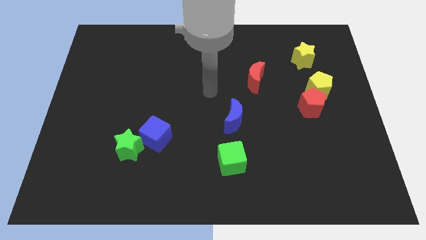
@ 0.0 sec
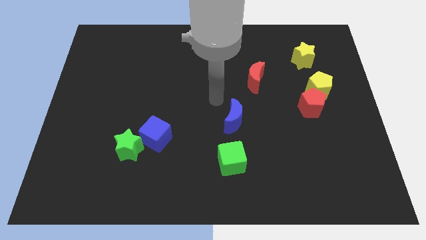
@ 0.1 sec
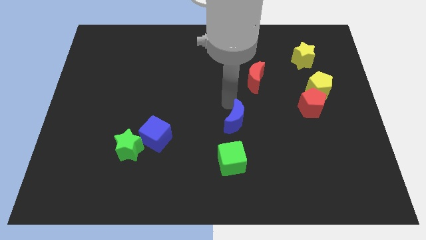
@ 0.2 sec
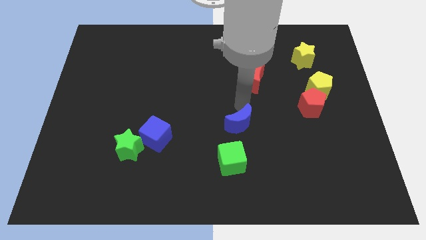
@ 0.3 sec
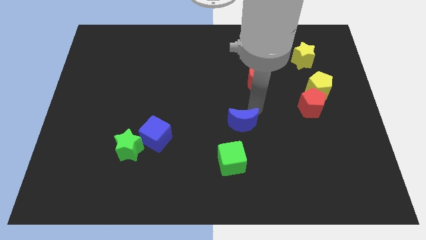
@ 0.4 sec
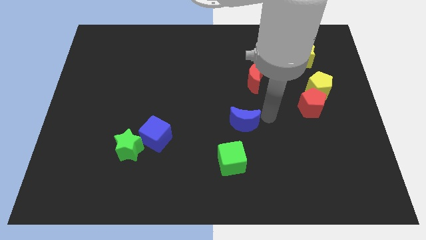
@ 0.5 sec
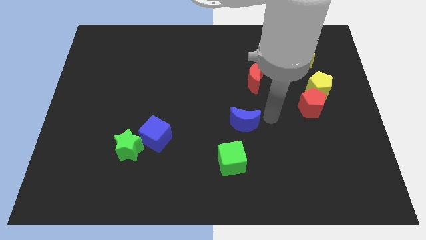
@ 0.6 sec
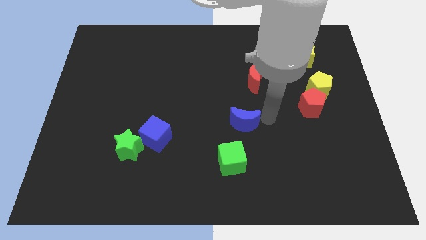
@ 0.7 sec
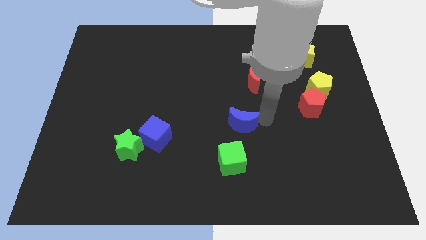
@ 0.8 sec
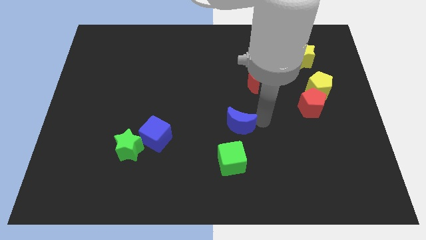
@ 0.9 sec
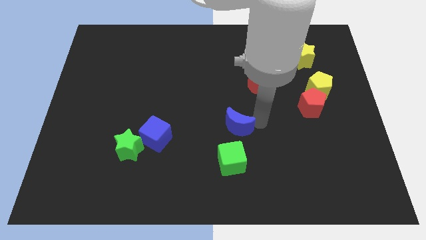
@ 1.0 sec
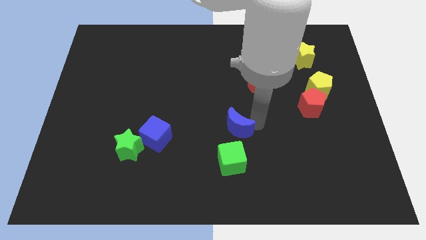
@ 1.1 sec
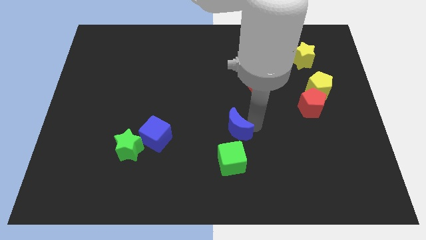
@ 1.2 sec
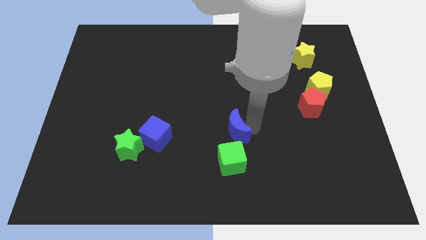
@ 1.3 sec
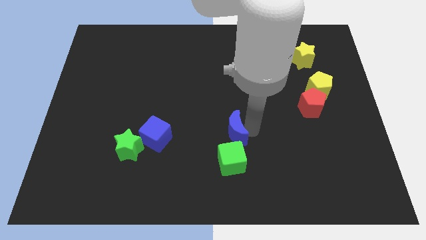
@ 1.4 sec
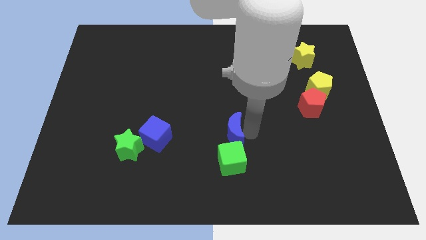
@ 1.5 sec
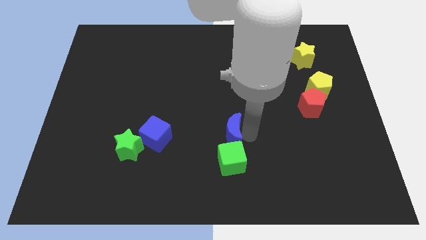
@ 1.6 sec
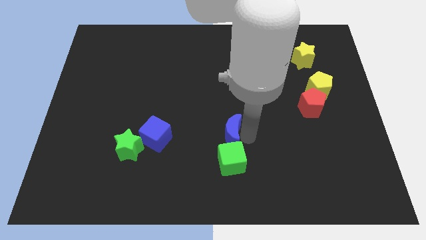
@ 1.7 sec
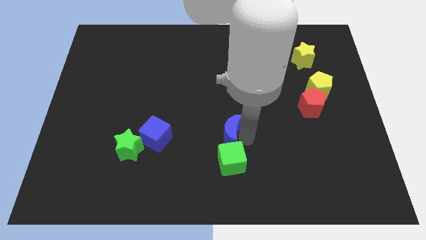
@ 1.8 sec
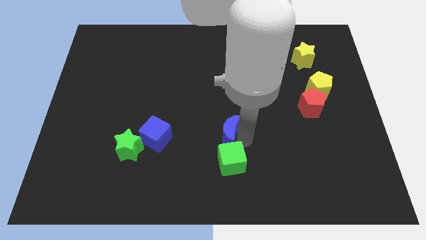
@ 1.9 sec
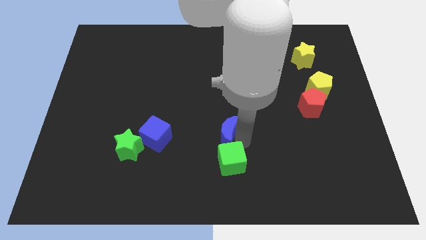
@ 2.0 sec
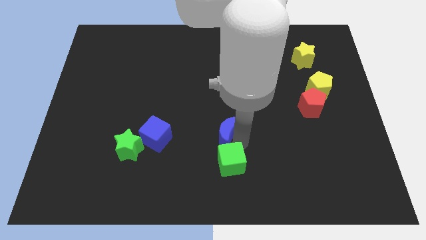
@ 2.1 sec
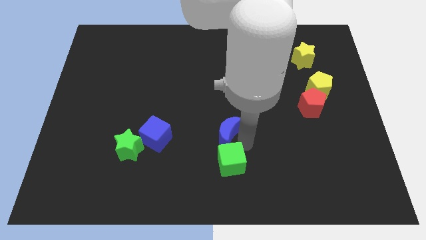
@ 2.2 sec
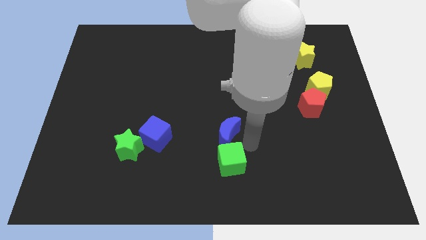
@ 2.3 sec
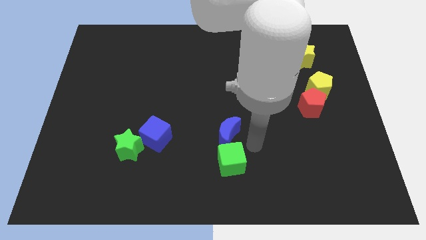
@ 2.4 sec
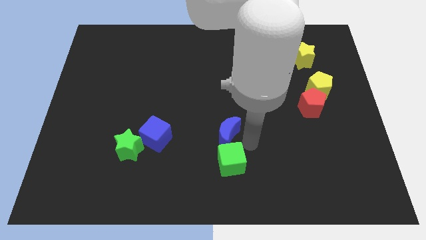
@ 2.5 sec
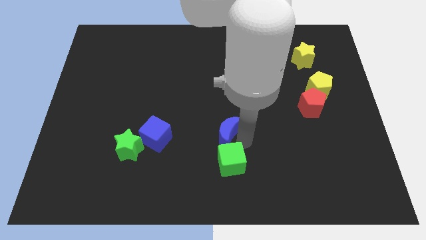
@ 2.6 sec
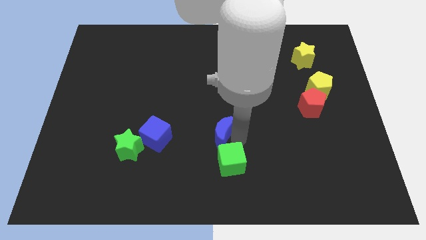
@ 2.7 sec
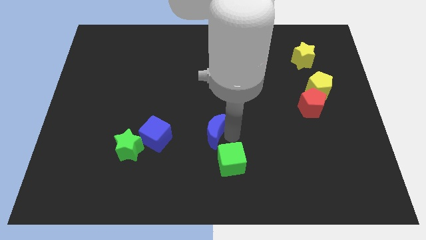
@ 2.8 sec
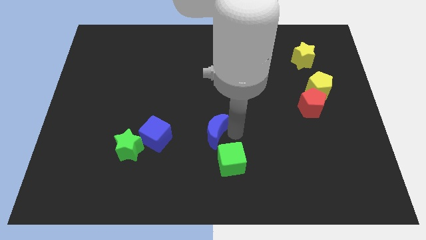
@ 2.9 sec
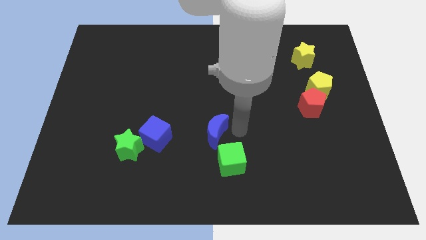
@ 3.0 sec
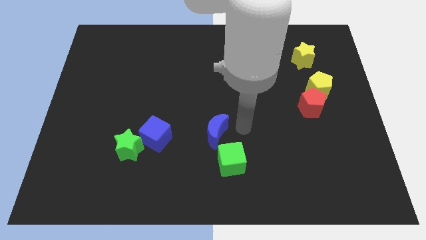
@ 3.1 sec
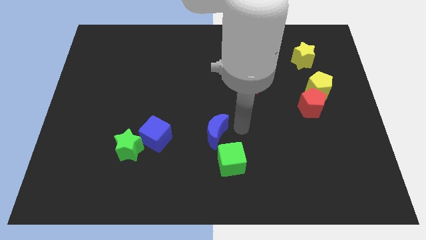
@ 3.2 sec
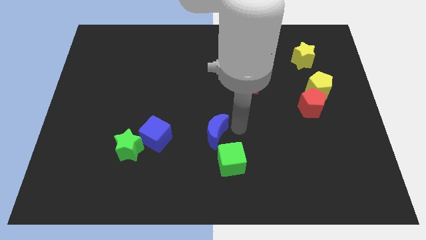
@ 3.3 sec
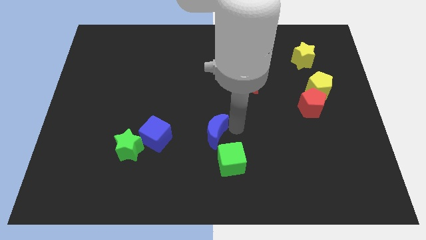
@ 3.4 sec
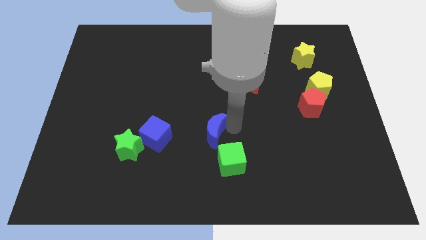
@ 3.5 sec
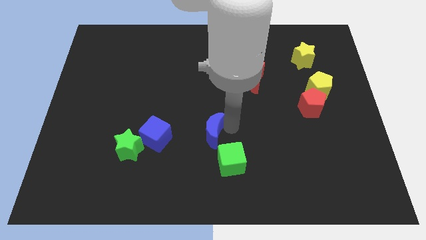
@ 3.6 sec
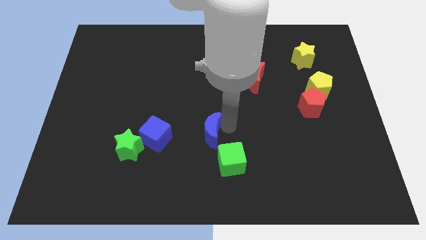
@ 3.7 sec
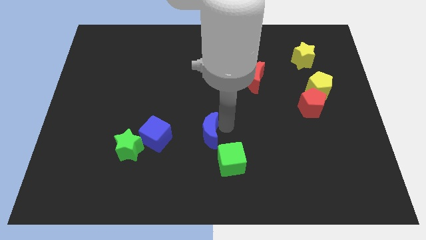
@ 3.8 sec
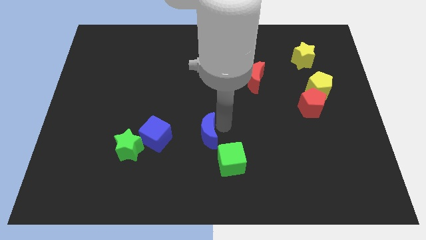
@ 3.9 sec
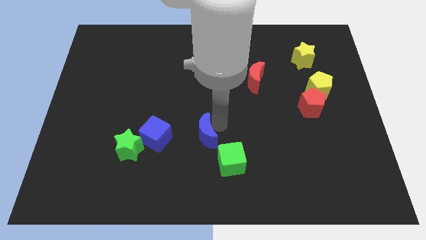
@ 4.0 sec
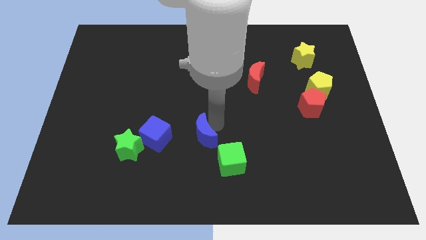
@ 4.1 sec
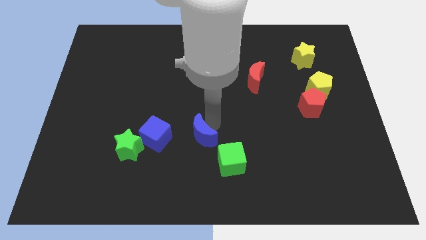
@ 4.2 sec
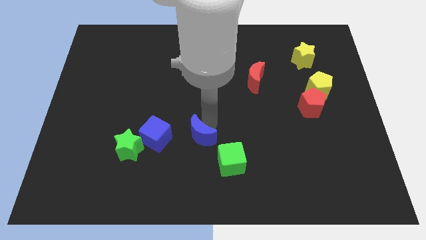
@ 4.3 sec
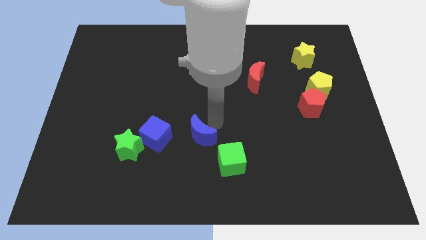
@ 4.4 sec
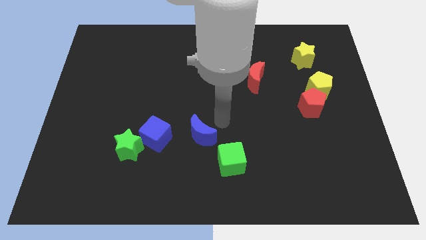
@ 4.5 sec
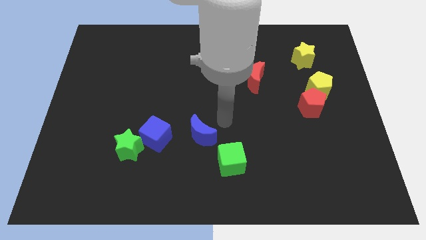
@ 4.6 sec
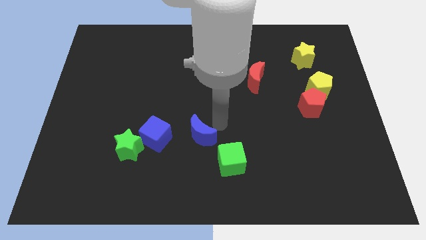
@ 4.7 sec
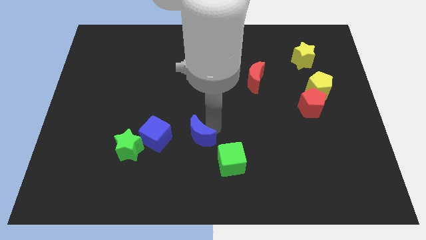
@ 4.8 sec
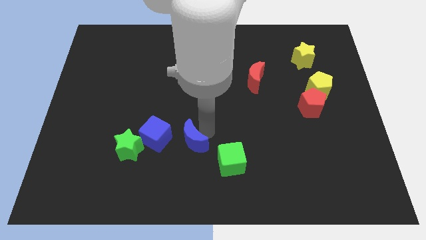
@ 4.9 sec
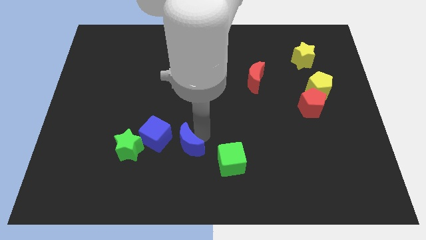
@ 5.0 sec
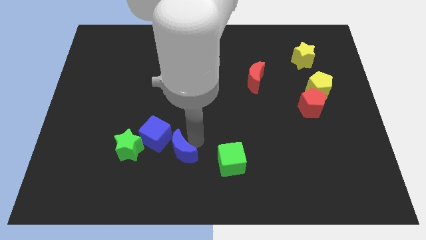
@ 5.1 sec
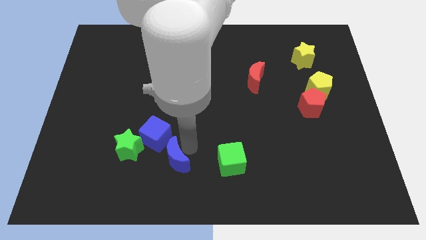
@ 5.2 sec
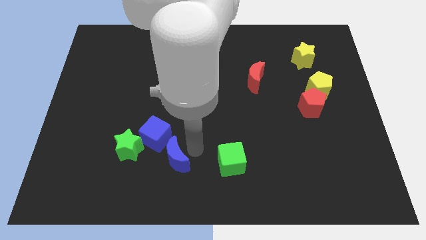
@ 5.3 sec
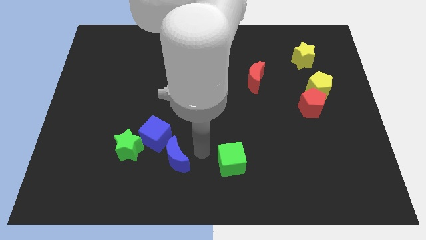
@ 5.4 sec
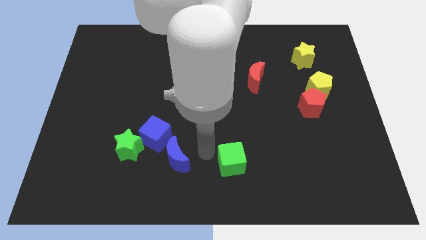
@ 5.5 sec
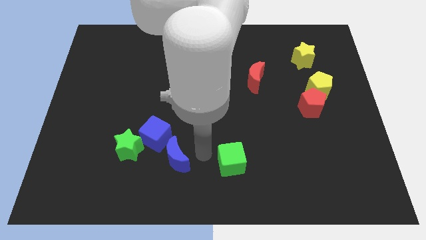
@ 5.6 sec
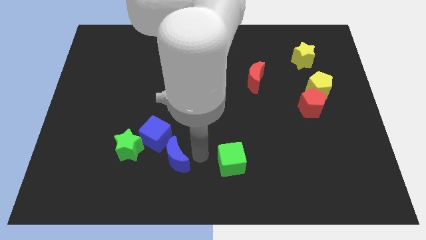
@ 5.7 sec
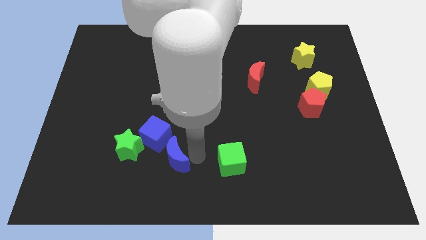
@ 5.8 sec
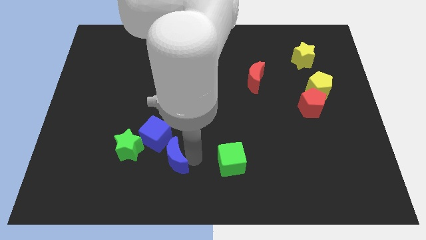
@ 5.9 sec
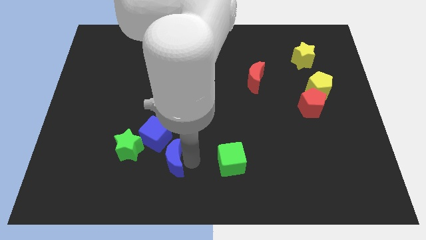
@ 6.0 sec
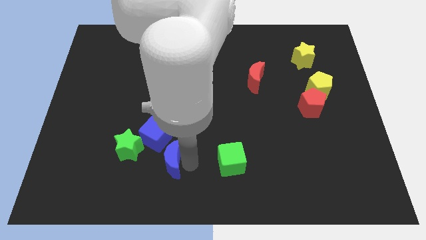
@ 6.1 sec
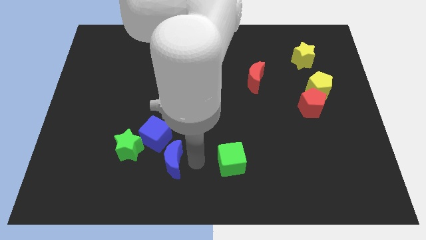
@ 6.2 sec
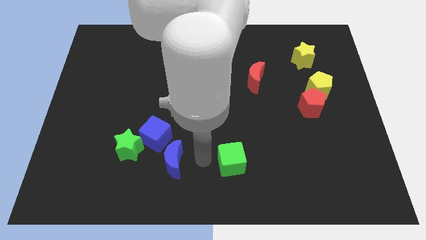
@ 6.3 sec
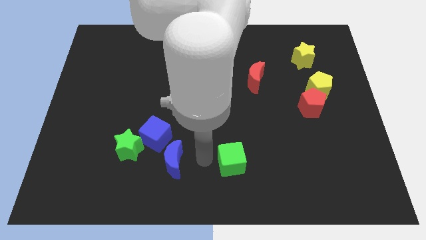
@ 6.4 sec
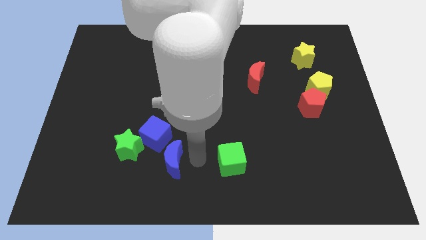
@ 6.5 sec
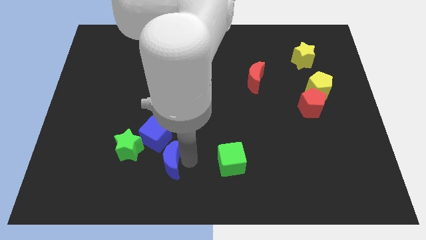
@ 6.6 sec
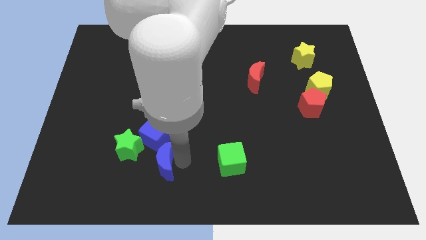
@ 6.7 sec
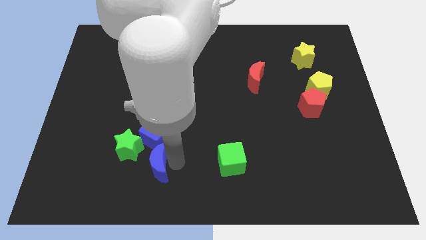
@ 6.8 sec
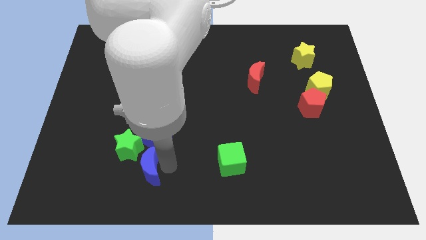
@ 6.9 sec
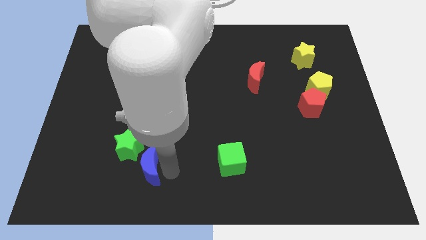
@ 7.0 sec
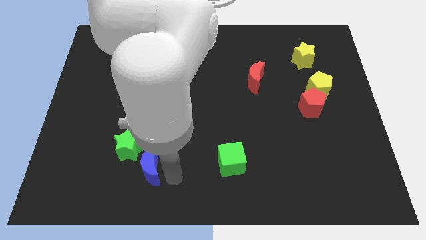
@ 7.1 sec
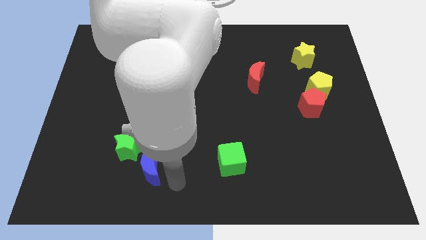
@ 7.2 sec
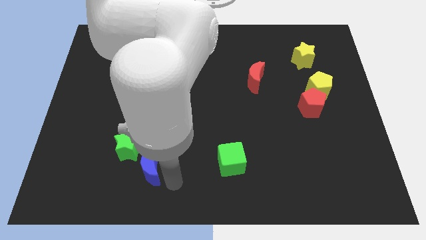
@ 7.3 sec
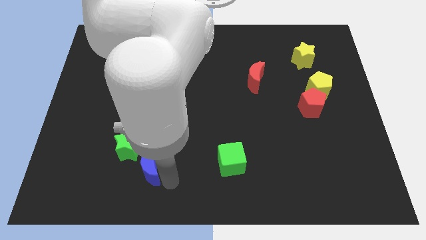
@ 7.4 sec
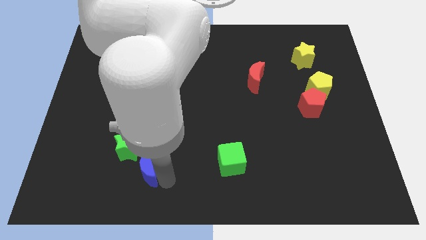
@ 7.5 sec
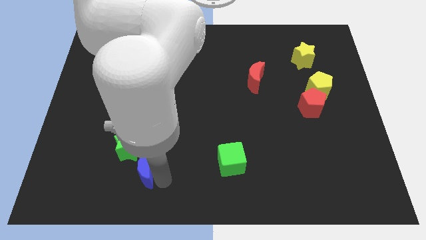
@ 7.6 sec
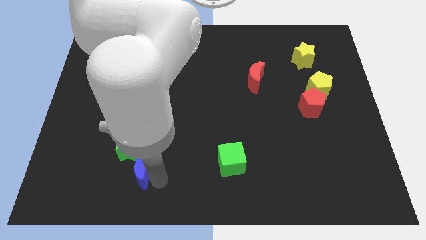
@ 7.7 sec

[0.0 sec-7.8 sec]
slide the blue moon to the bottom left side of the blue cube
